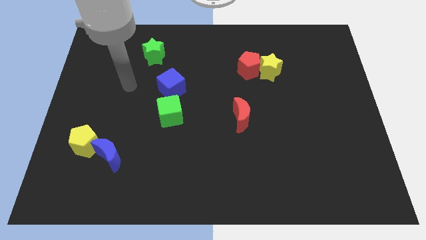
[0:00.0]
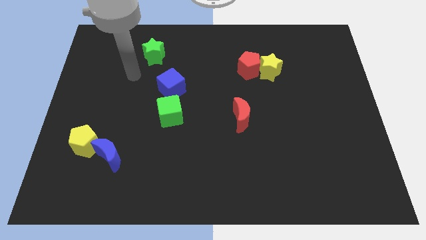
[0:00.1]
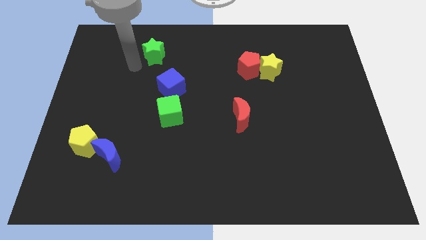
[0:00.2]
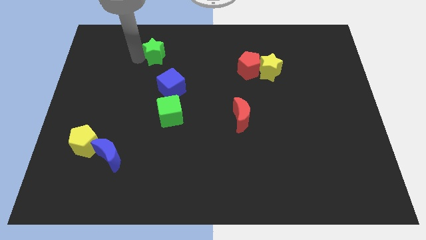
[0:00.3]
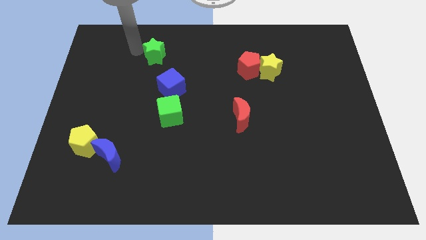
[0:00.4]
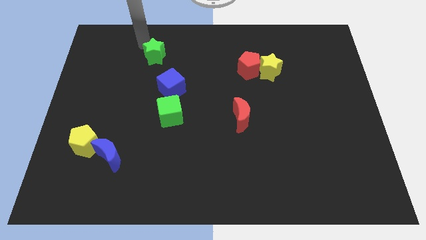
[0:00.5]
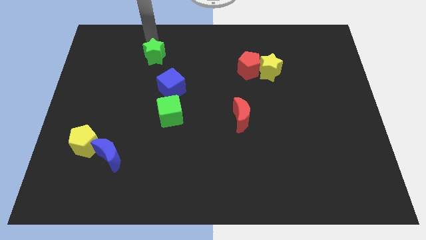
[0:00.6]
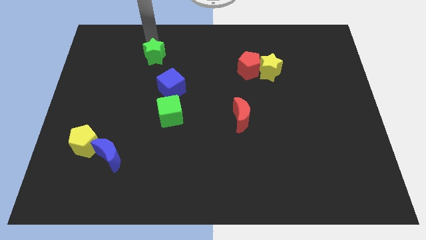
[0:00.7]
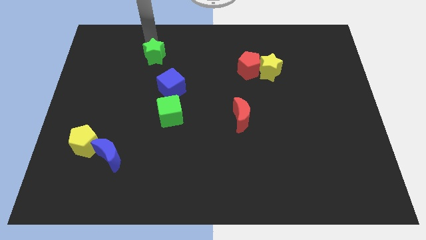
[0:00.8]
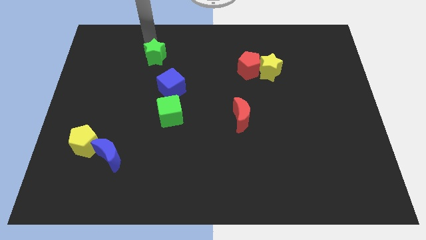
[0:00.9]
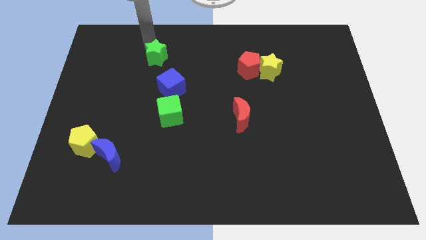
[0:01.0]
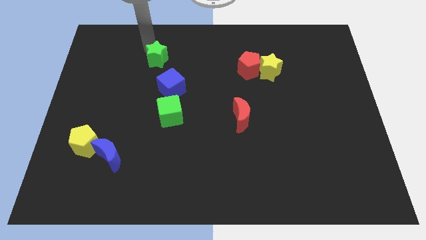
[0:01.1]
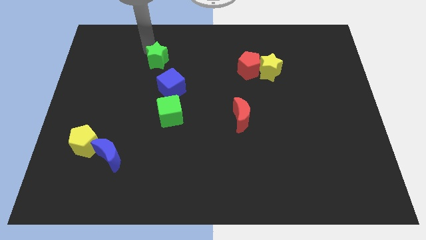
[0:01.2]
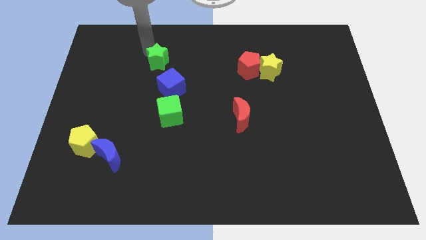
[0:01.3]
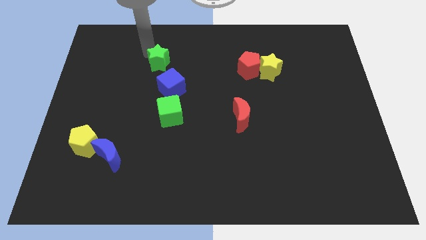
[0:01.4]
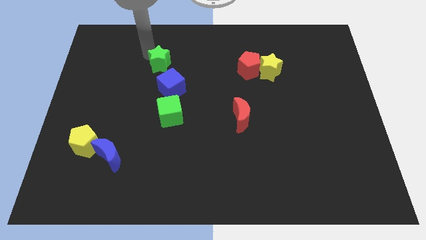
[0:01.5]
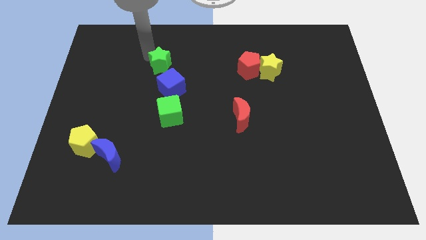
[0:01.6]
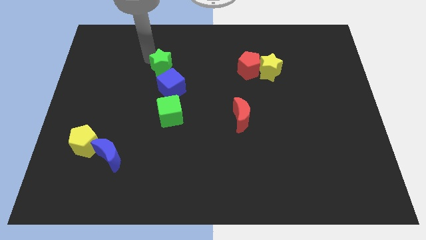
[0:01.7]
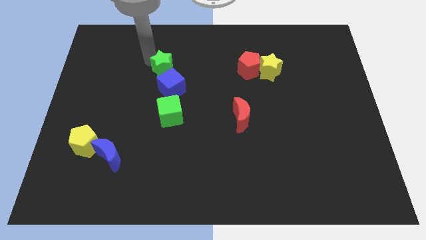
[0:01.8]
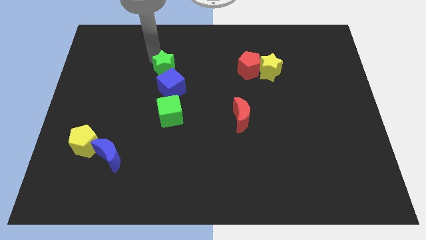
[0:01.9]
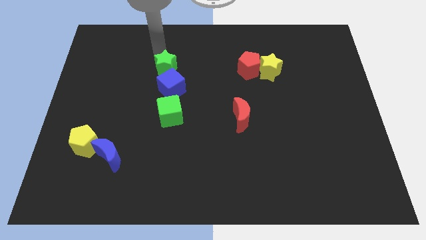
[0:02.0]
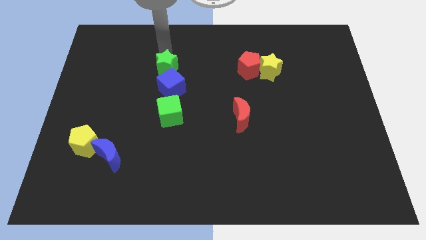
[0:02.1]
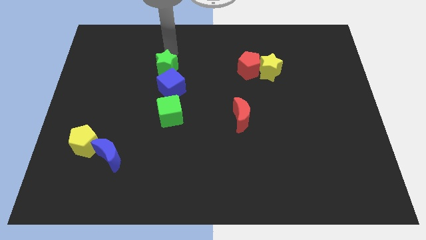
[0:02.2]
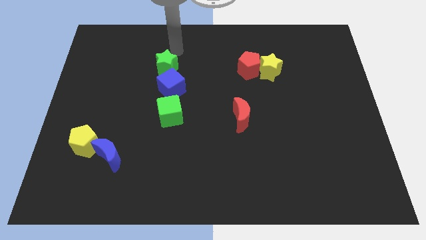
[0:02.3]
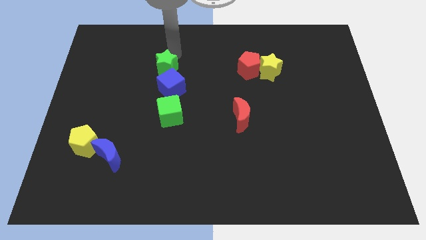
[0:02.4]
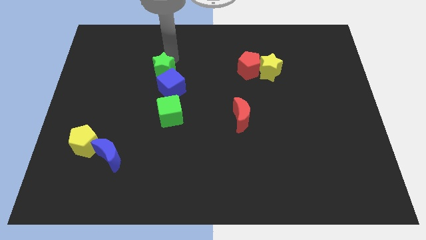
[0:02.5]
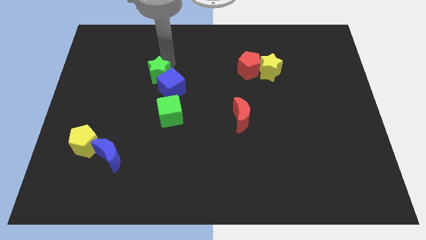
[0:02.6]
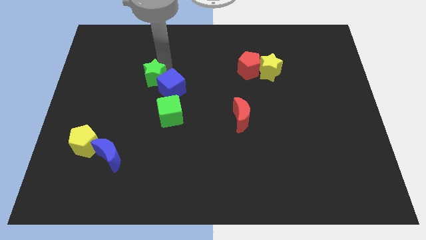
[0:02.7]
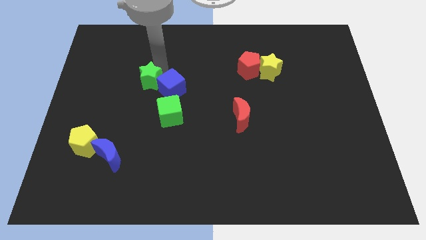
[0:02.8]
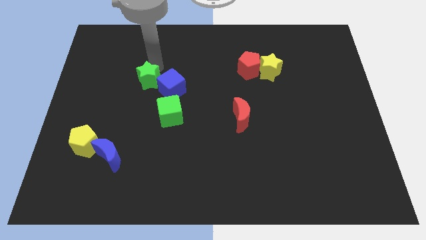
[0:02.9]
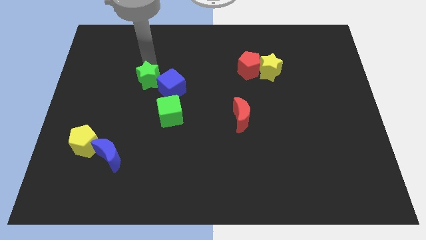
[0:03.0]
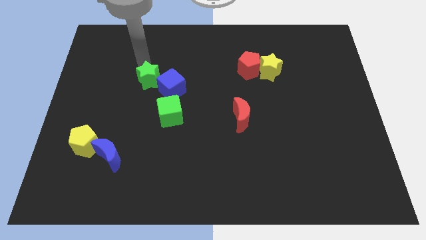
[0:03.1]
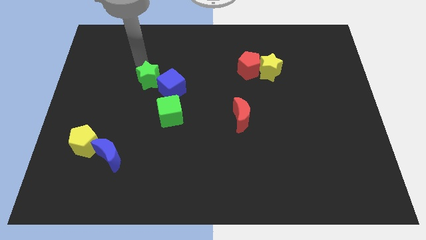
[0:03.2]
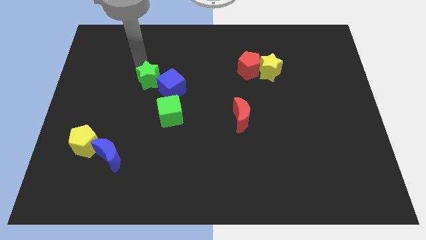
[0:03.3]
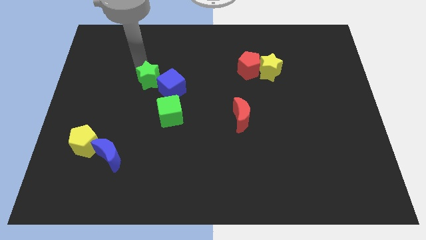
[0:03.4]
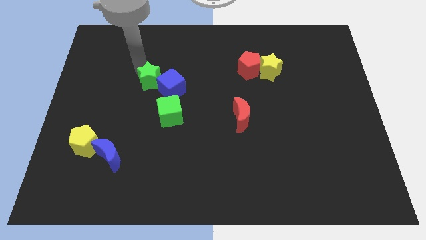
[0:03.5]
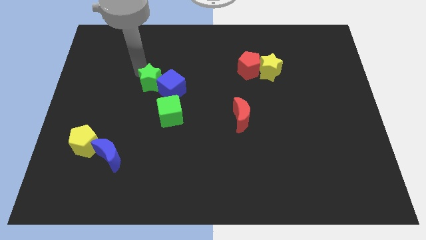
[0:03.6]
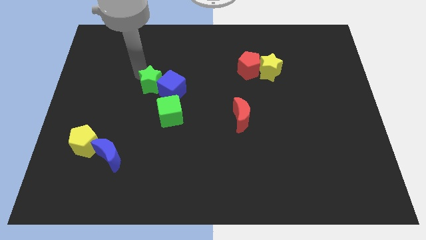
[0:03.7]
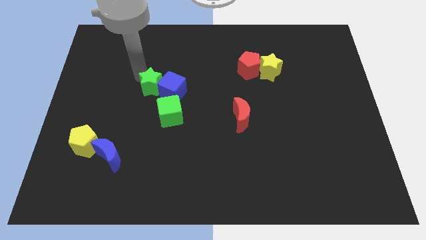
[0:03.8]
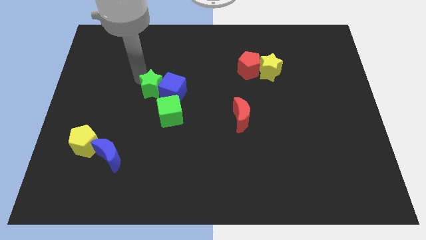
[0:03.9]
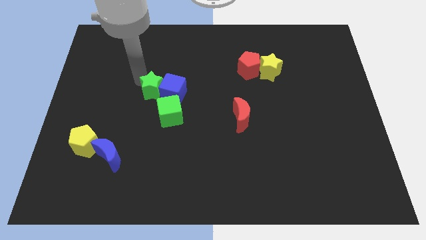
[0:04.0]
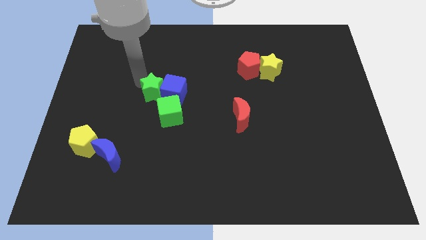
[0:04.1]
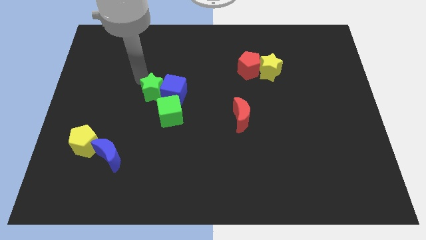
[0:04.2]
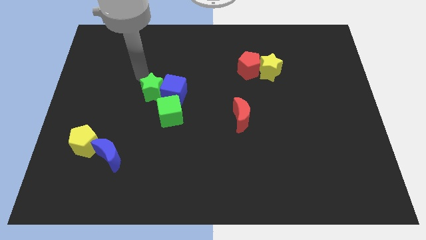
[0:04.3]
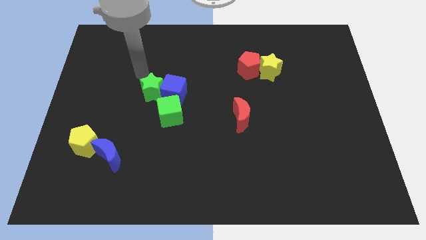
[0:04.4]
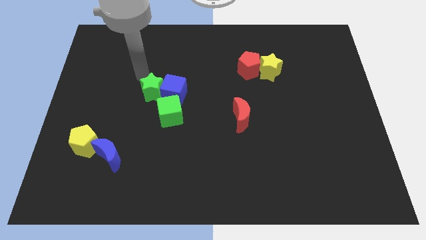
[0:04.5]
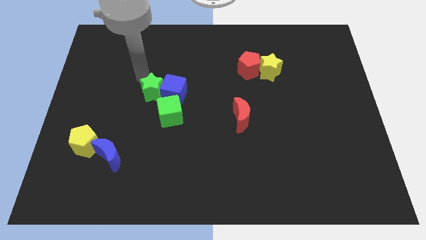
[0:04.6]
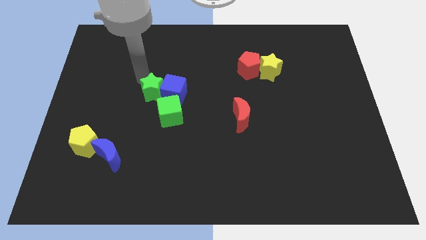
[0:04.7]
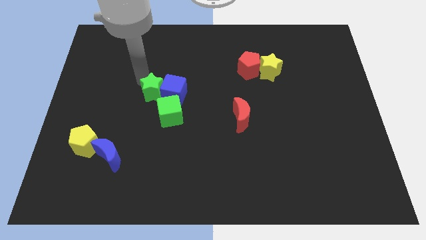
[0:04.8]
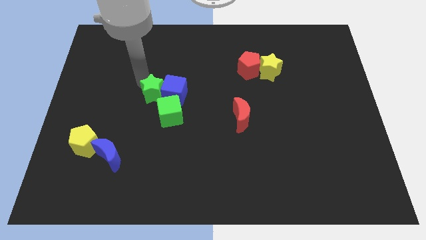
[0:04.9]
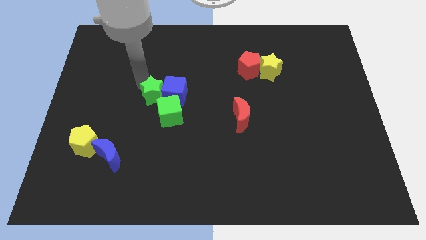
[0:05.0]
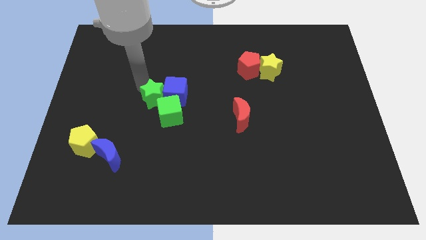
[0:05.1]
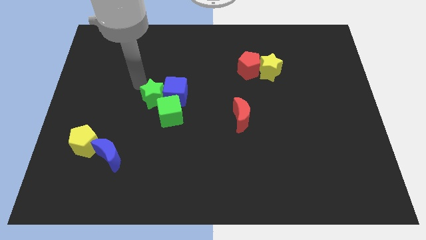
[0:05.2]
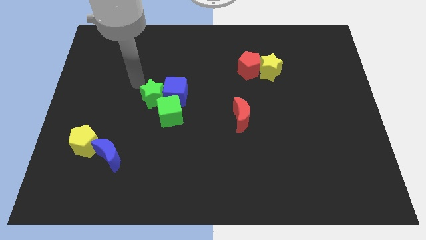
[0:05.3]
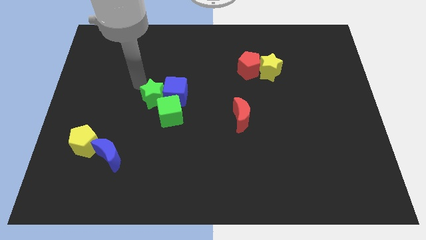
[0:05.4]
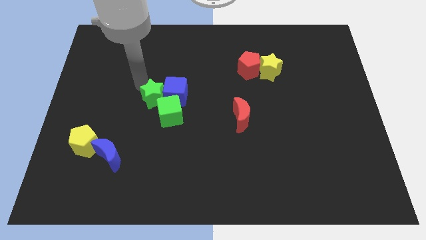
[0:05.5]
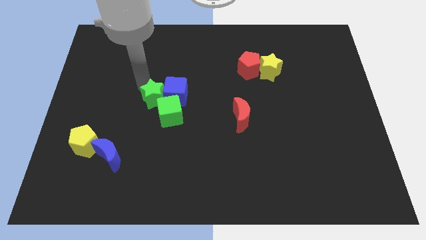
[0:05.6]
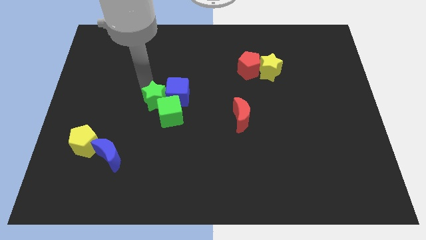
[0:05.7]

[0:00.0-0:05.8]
slide the green star to the green cube

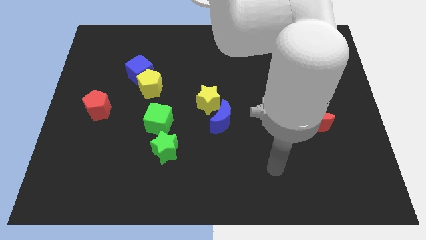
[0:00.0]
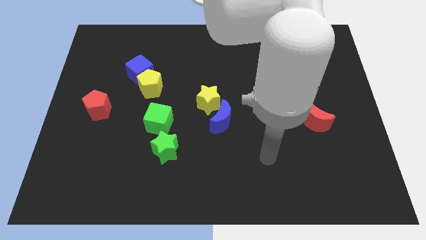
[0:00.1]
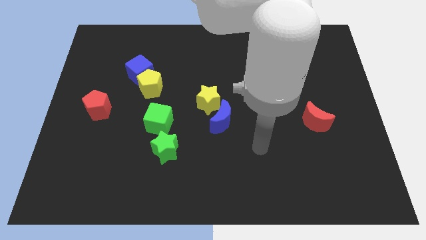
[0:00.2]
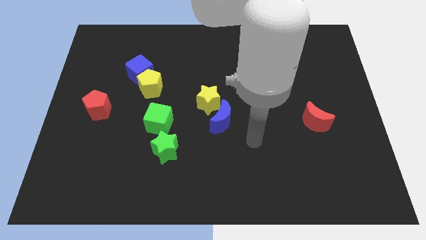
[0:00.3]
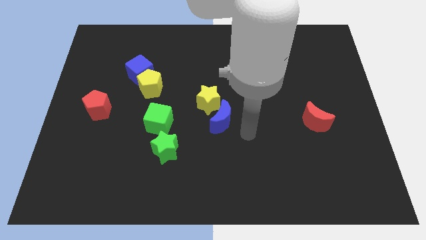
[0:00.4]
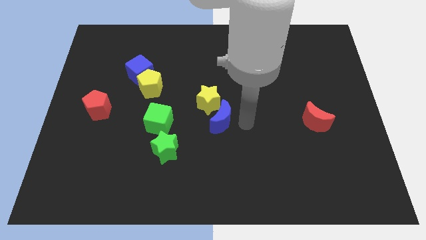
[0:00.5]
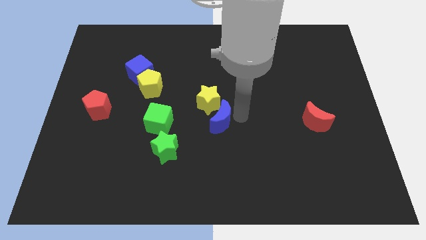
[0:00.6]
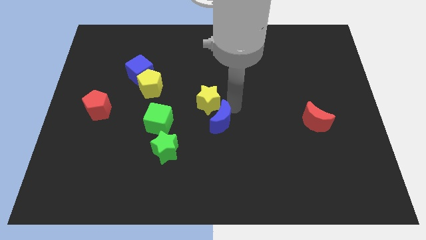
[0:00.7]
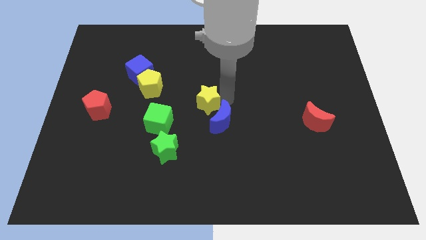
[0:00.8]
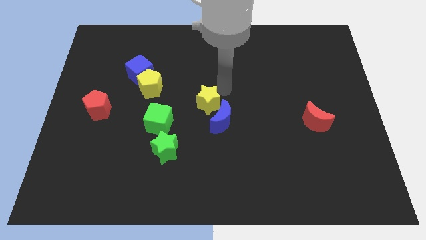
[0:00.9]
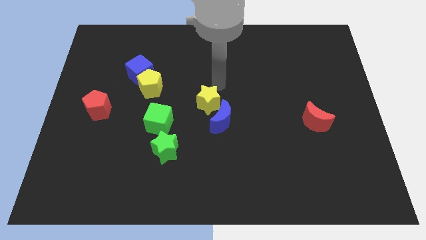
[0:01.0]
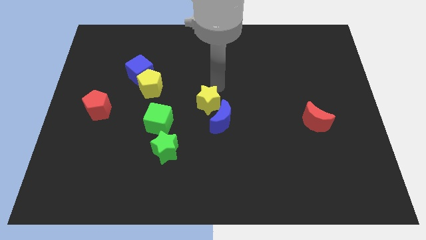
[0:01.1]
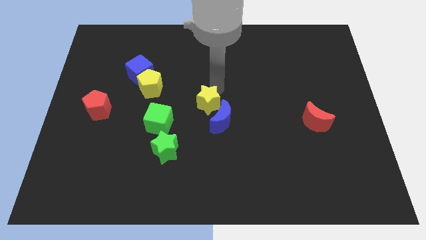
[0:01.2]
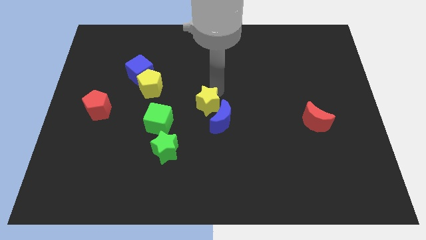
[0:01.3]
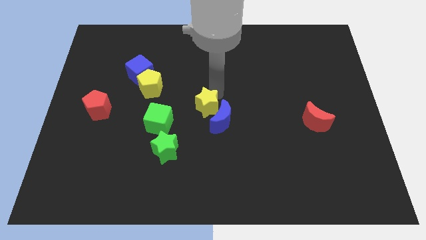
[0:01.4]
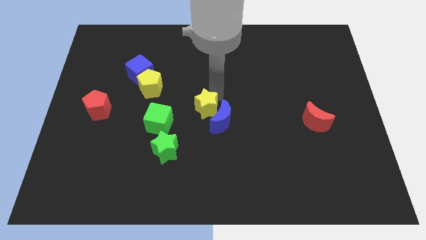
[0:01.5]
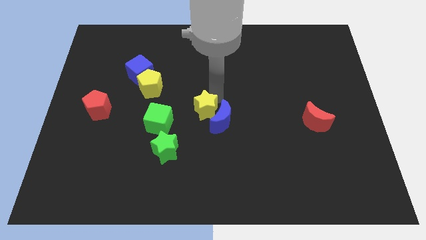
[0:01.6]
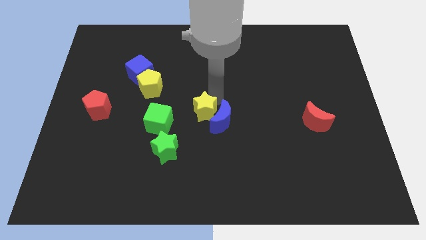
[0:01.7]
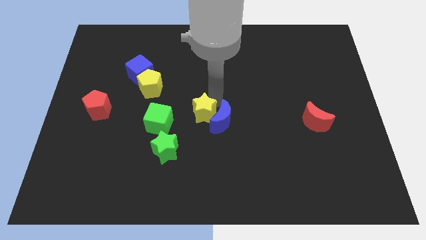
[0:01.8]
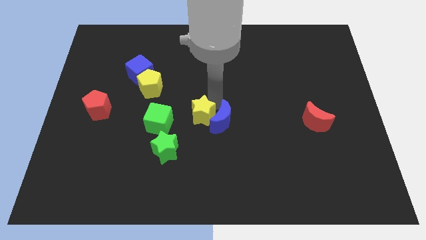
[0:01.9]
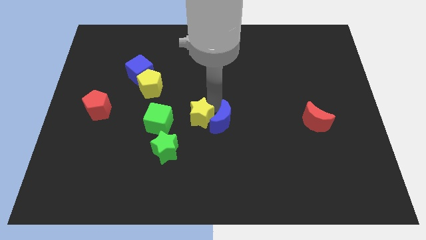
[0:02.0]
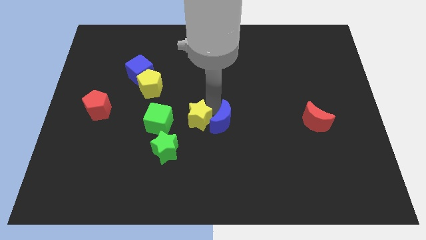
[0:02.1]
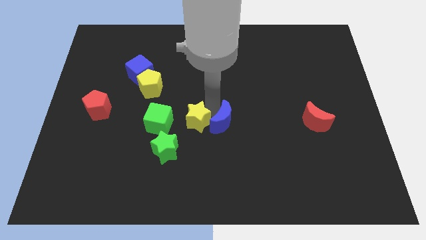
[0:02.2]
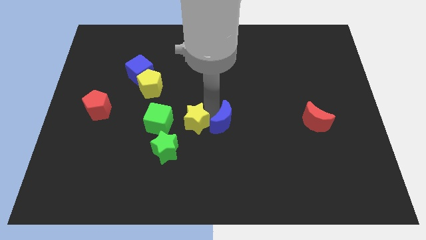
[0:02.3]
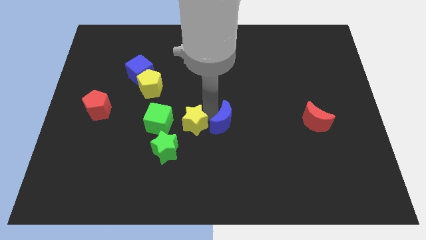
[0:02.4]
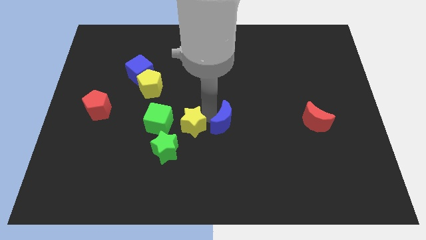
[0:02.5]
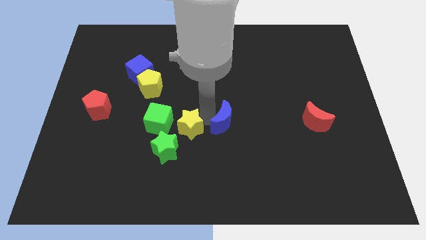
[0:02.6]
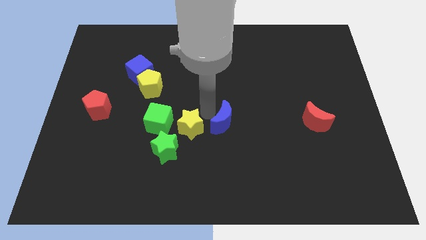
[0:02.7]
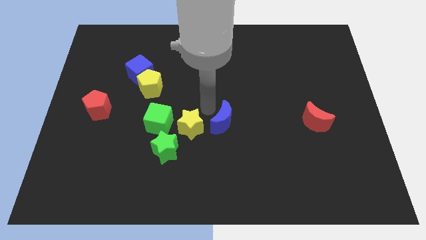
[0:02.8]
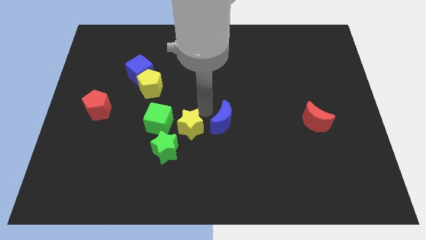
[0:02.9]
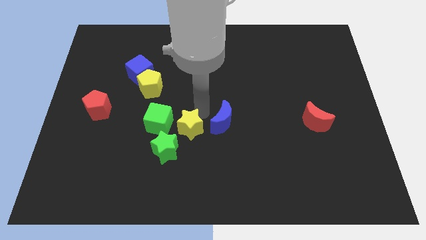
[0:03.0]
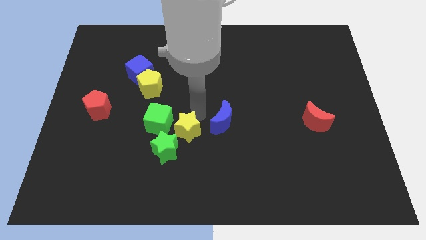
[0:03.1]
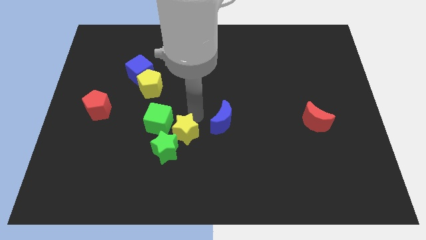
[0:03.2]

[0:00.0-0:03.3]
slide the yellow star to the green star
